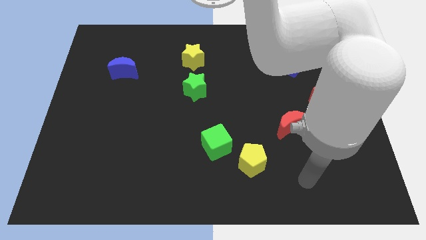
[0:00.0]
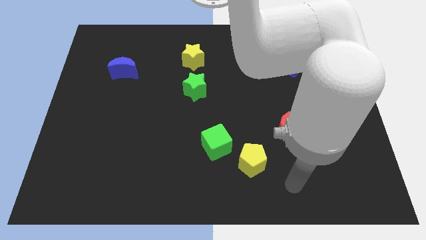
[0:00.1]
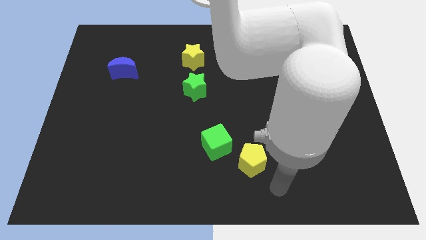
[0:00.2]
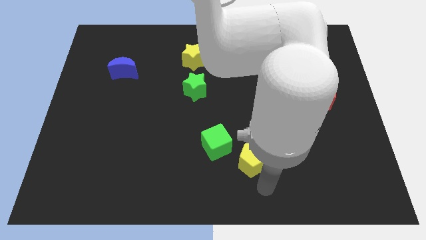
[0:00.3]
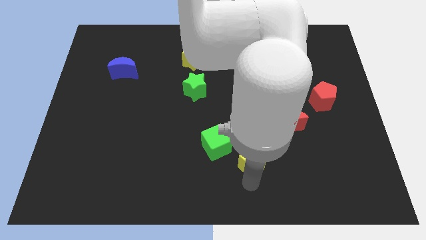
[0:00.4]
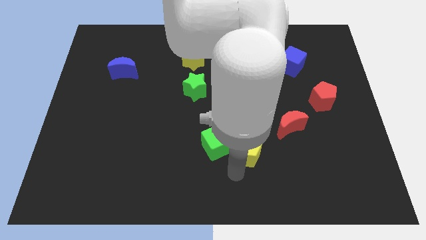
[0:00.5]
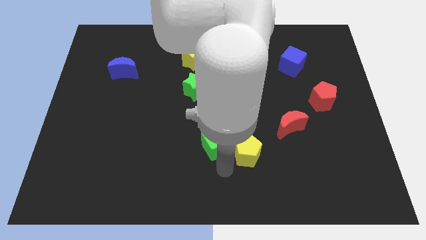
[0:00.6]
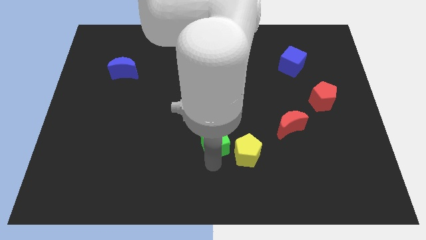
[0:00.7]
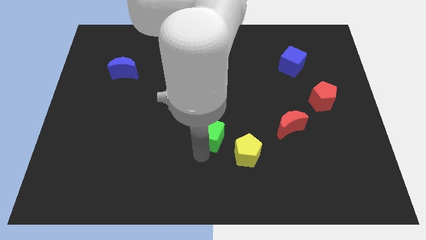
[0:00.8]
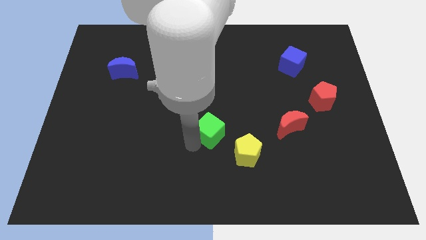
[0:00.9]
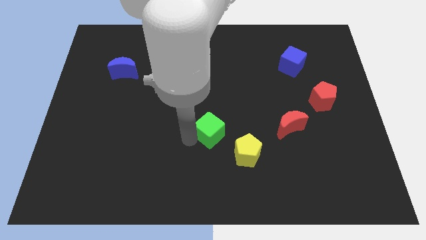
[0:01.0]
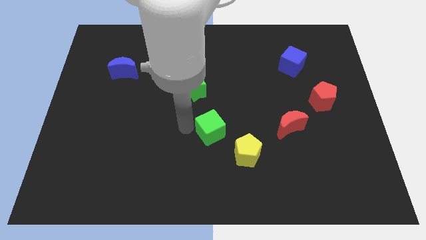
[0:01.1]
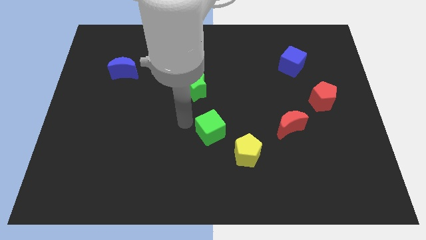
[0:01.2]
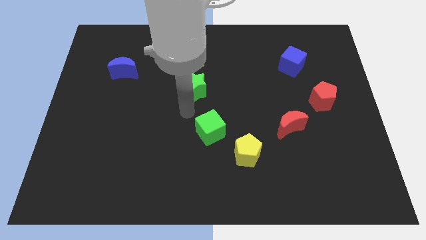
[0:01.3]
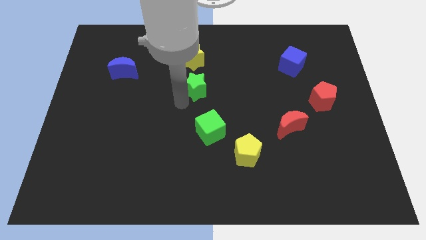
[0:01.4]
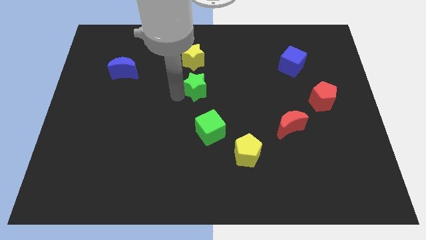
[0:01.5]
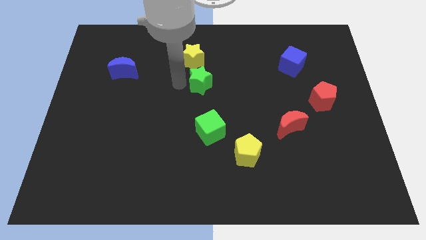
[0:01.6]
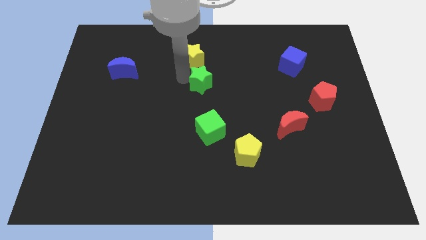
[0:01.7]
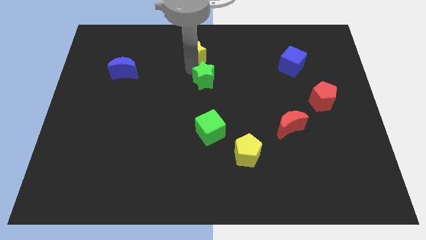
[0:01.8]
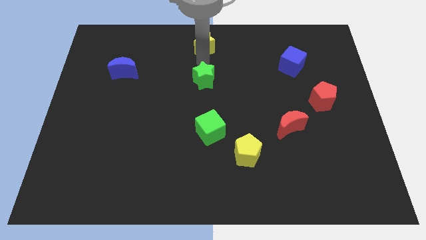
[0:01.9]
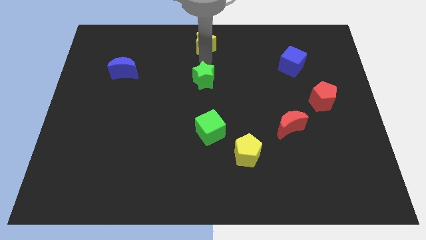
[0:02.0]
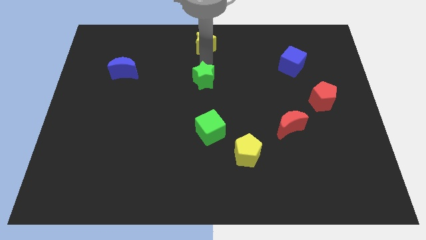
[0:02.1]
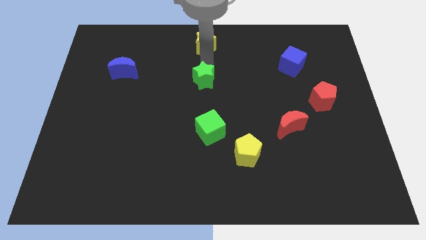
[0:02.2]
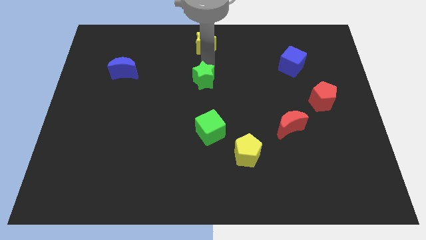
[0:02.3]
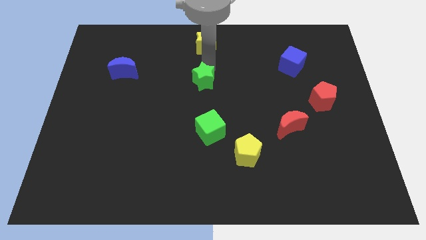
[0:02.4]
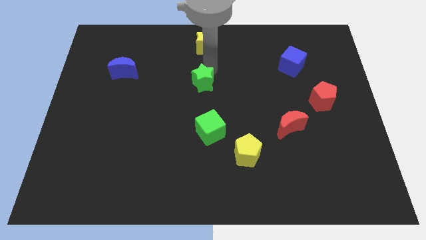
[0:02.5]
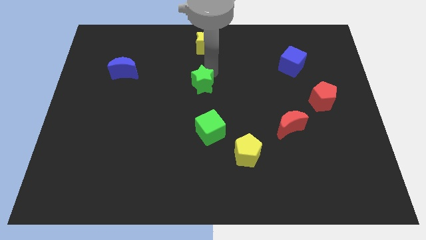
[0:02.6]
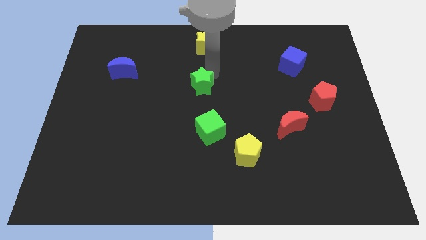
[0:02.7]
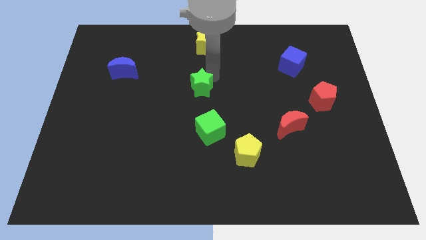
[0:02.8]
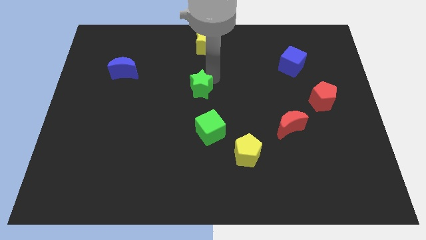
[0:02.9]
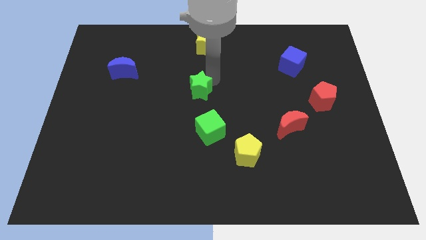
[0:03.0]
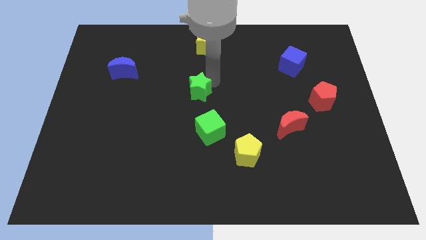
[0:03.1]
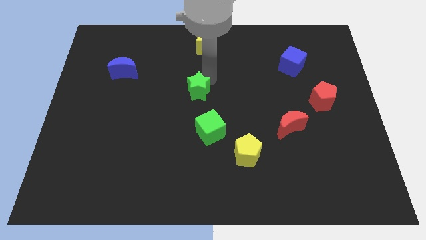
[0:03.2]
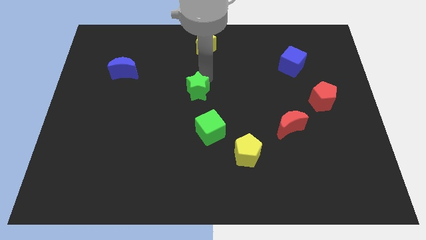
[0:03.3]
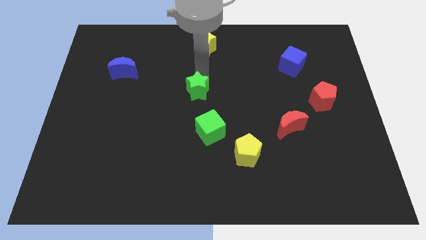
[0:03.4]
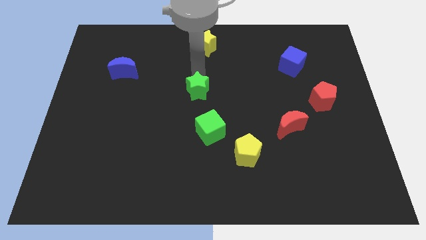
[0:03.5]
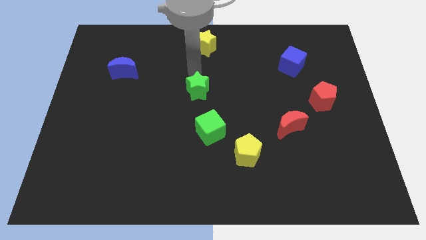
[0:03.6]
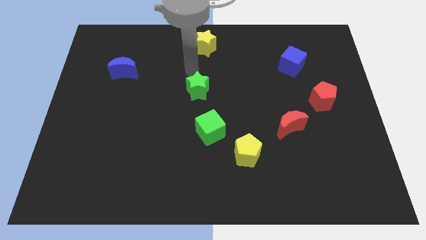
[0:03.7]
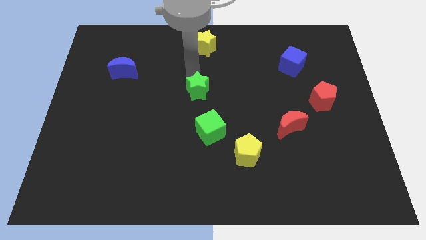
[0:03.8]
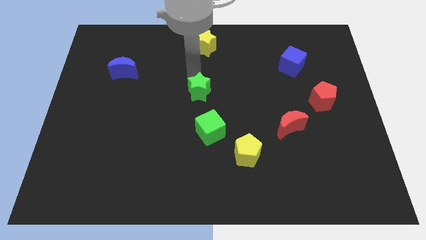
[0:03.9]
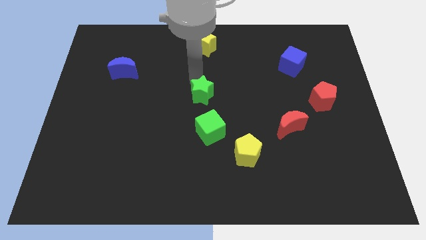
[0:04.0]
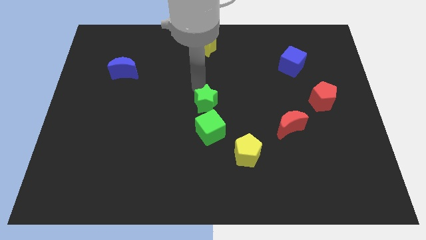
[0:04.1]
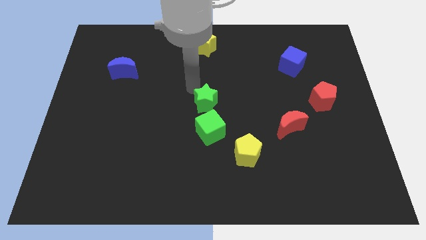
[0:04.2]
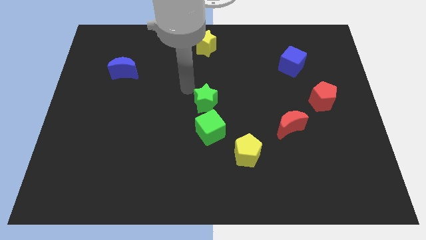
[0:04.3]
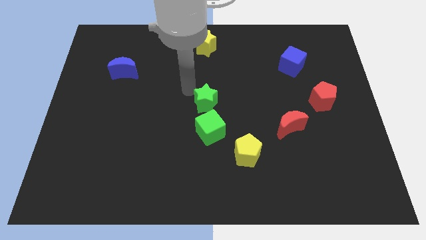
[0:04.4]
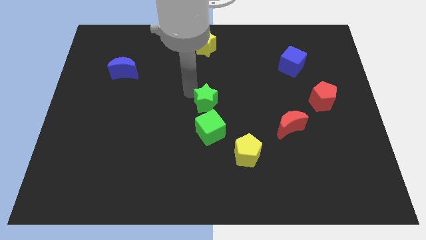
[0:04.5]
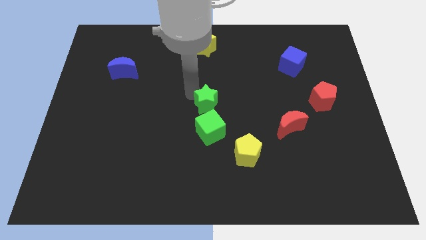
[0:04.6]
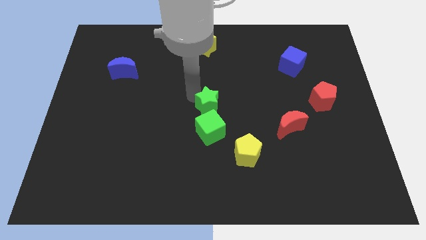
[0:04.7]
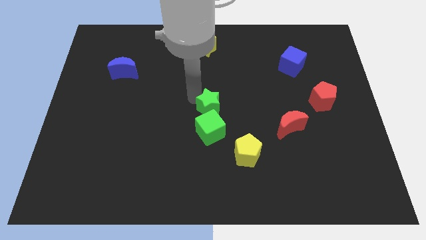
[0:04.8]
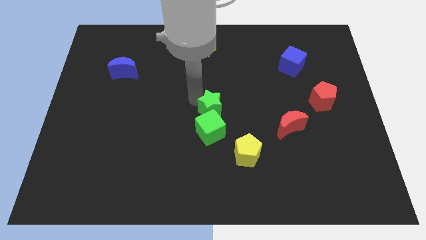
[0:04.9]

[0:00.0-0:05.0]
move the green star down and to the right a little bit

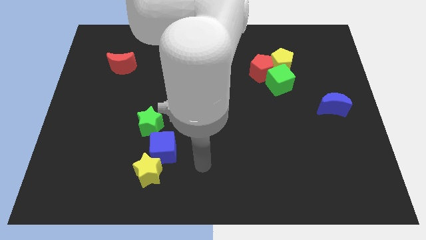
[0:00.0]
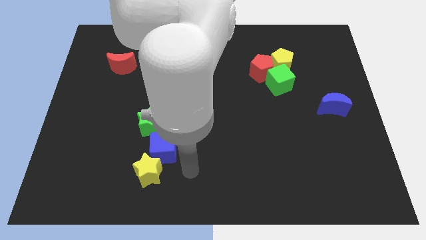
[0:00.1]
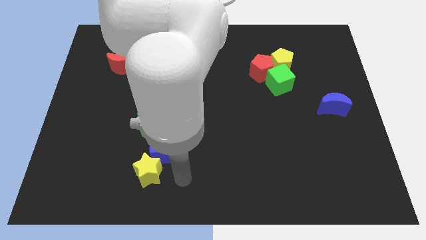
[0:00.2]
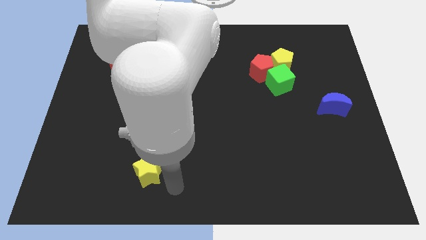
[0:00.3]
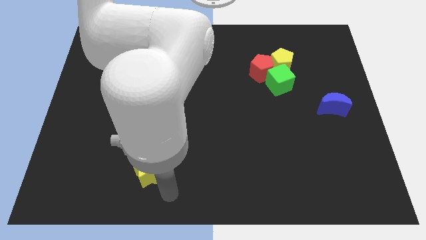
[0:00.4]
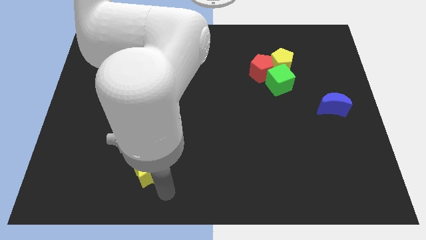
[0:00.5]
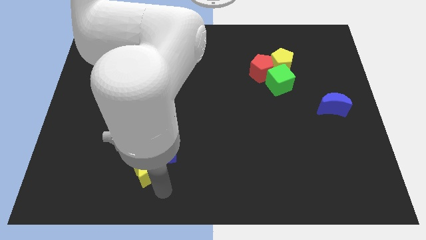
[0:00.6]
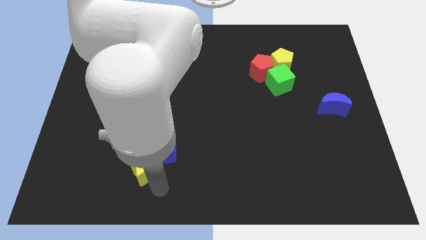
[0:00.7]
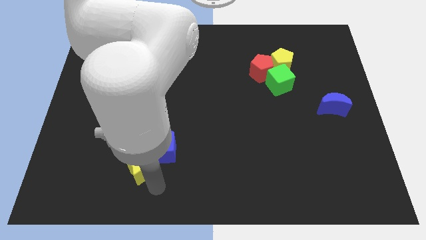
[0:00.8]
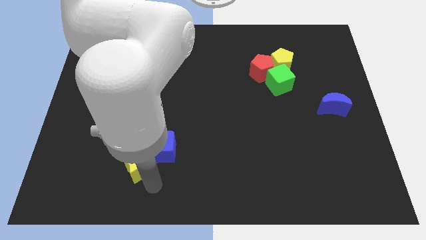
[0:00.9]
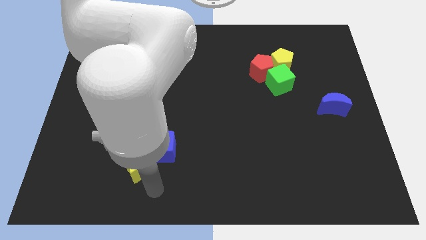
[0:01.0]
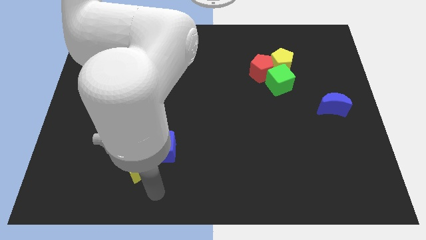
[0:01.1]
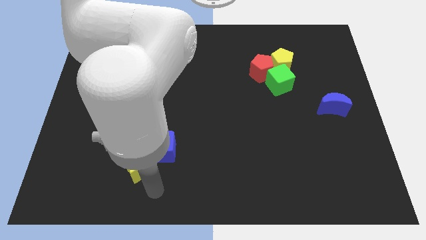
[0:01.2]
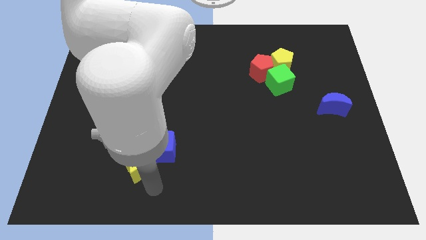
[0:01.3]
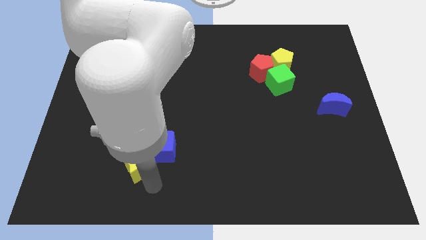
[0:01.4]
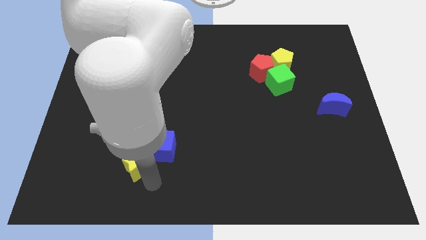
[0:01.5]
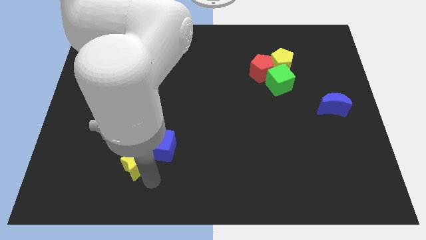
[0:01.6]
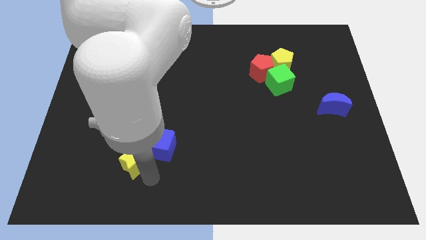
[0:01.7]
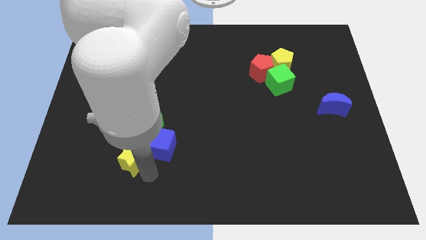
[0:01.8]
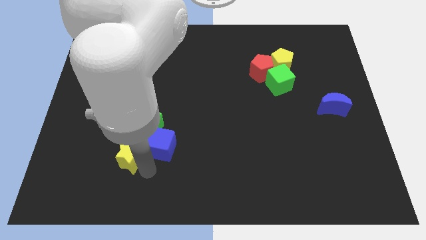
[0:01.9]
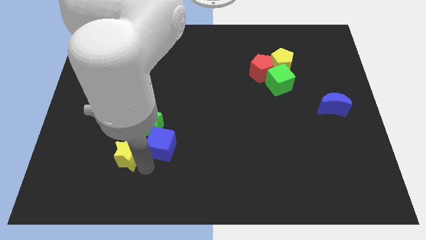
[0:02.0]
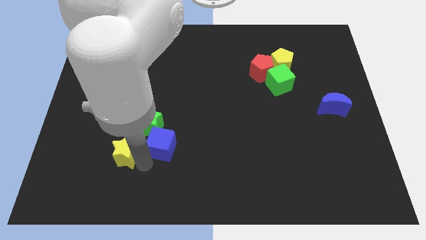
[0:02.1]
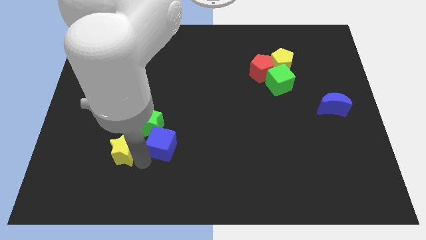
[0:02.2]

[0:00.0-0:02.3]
slightly move the yellow star upwards and then to the left

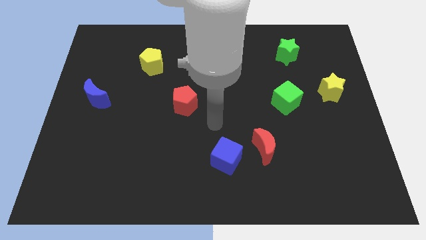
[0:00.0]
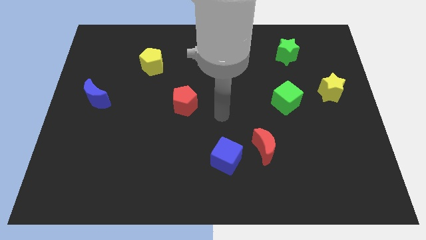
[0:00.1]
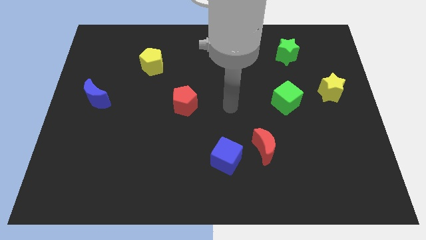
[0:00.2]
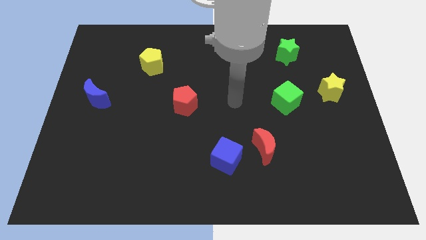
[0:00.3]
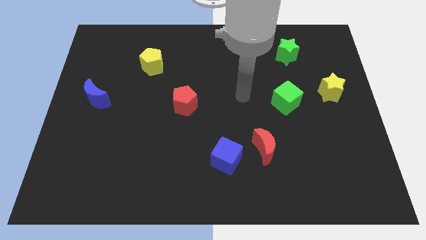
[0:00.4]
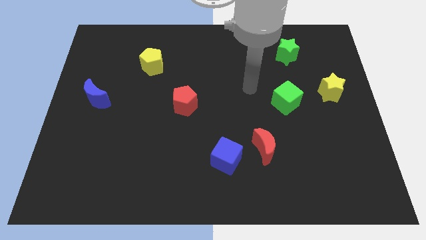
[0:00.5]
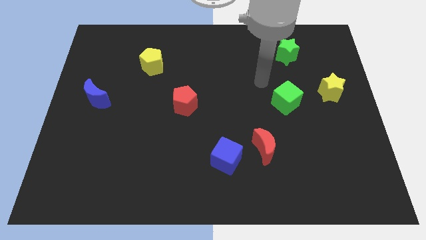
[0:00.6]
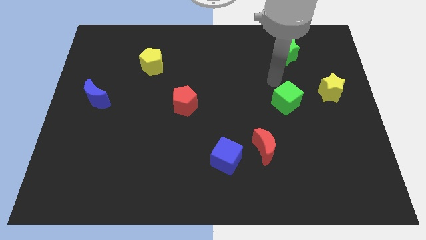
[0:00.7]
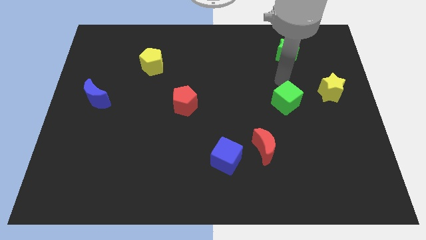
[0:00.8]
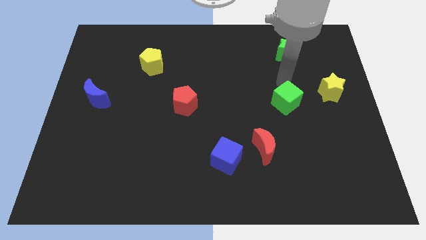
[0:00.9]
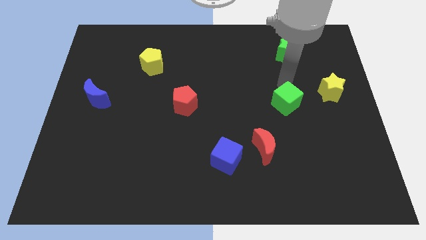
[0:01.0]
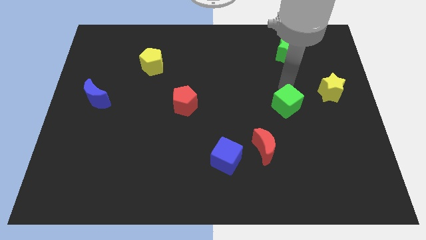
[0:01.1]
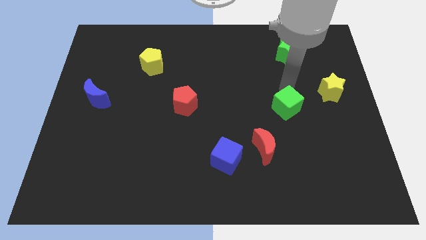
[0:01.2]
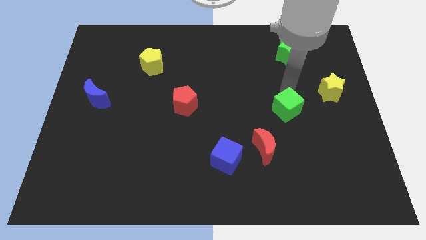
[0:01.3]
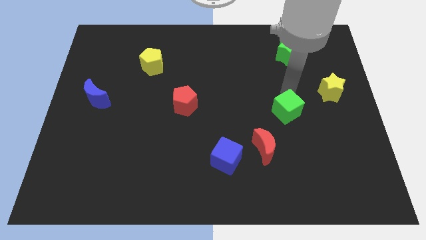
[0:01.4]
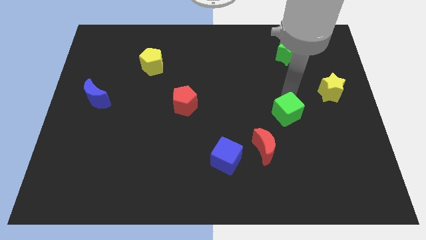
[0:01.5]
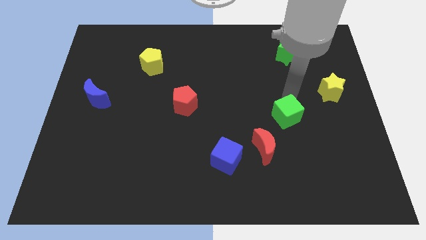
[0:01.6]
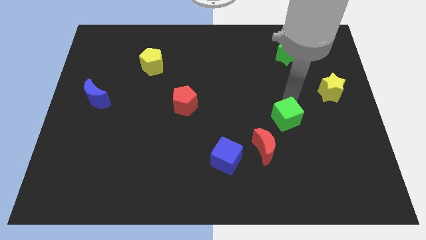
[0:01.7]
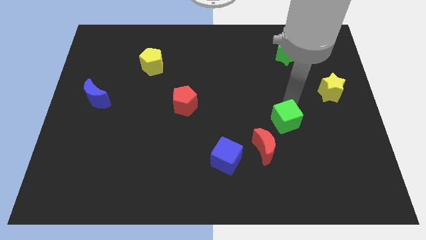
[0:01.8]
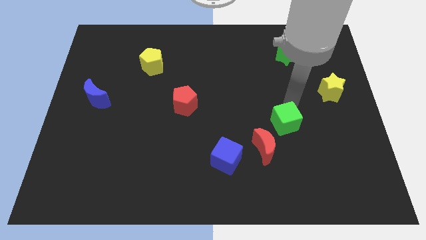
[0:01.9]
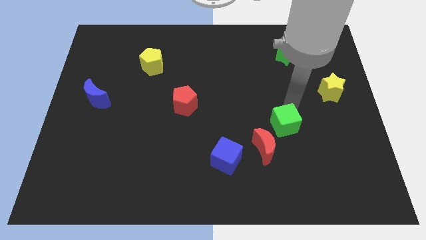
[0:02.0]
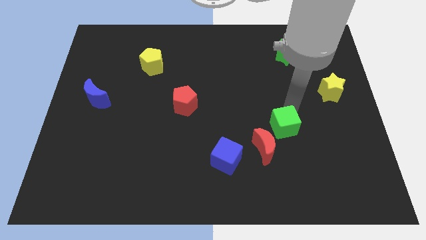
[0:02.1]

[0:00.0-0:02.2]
slide the green cube slightly downwards
